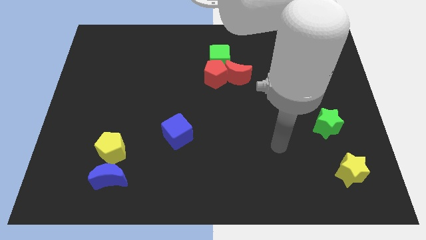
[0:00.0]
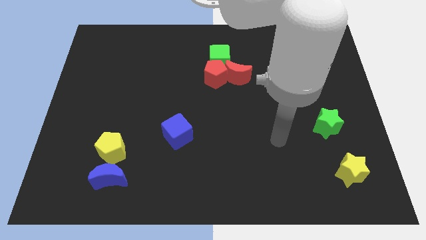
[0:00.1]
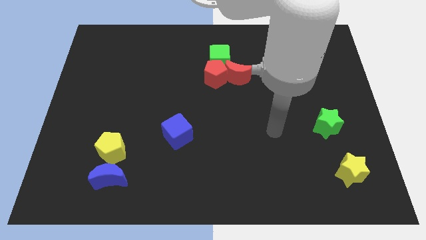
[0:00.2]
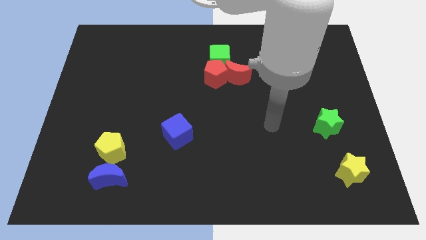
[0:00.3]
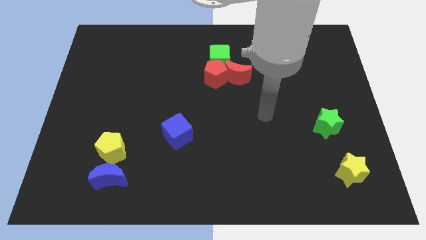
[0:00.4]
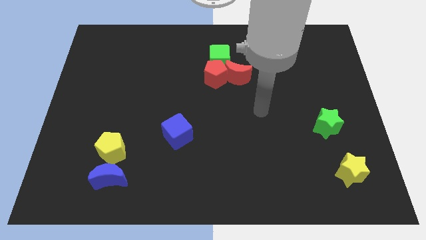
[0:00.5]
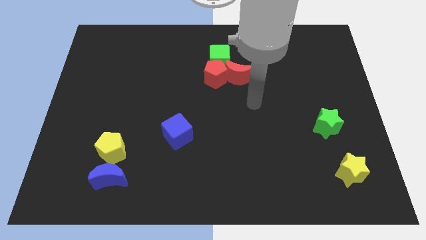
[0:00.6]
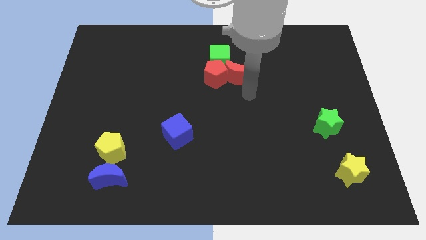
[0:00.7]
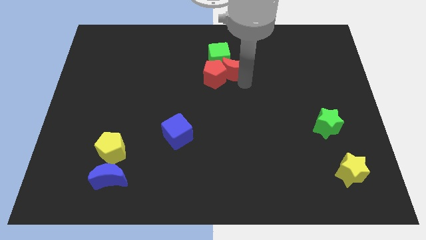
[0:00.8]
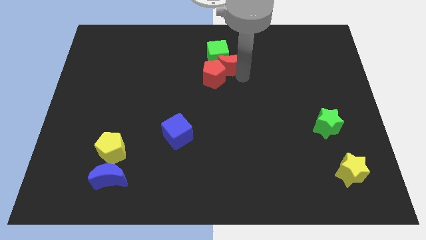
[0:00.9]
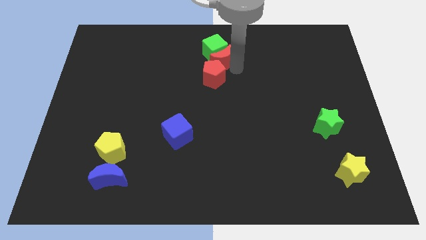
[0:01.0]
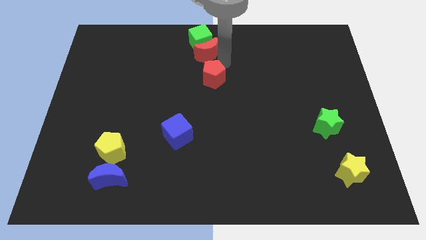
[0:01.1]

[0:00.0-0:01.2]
move the red pentagon away from the red moon and green cube

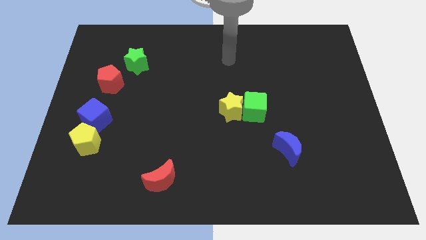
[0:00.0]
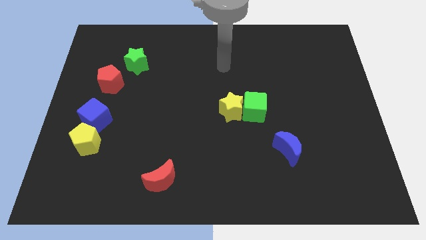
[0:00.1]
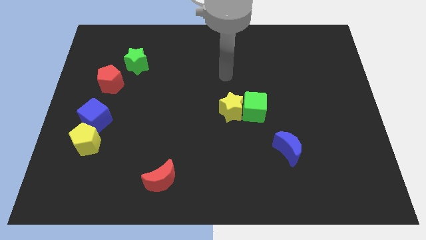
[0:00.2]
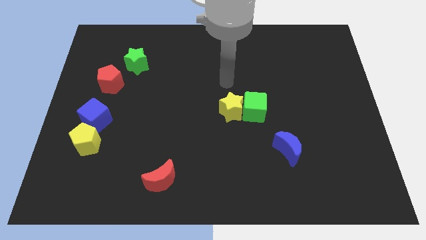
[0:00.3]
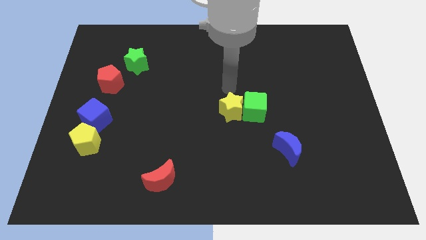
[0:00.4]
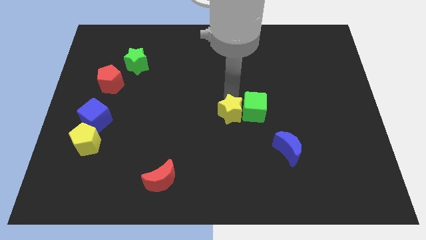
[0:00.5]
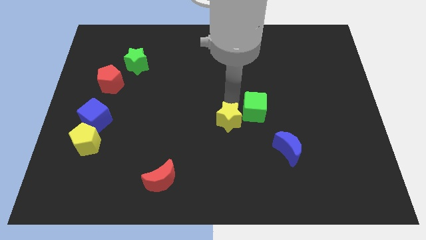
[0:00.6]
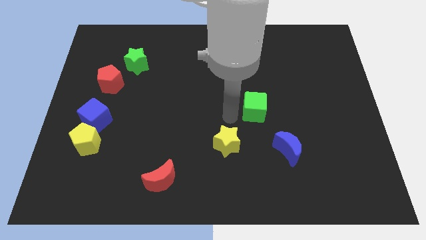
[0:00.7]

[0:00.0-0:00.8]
pull the green cube apart from the yellow star

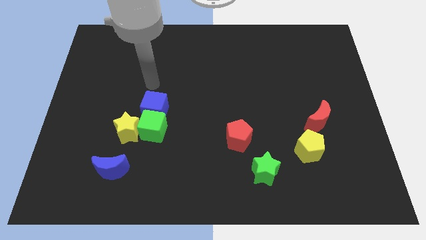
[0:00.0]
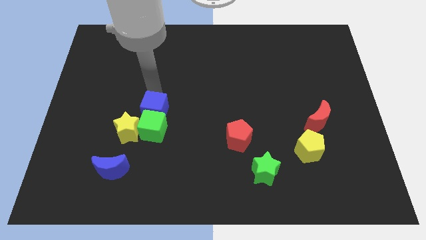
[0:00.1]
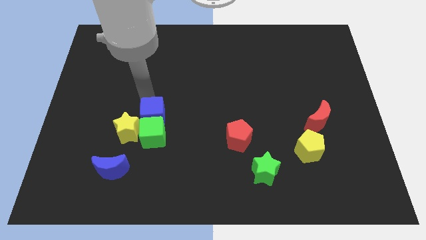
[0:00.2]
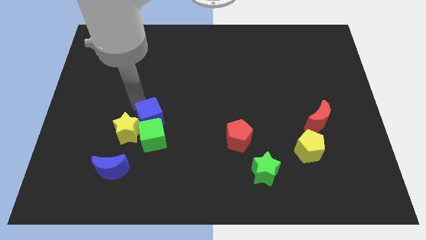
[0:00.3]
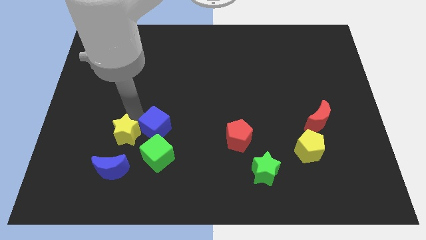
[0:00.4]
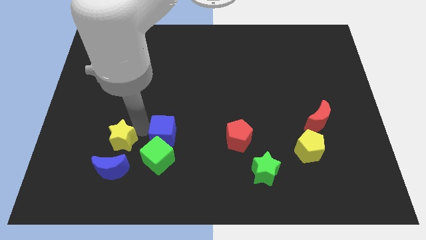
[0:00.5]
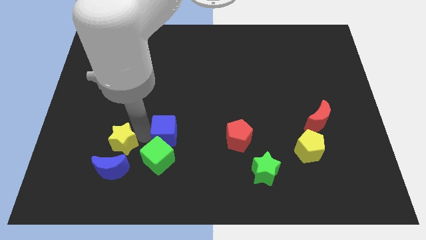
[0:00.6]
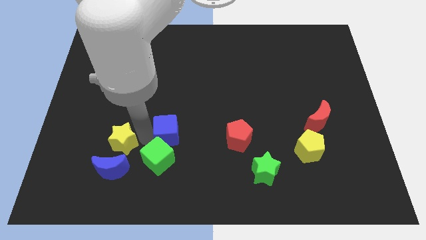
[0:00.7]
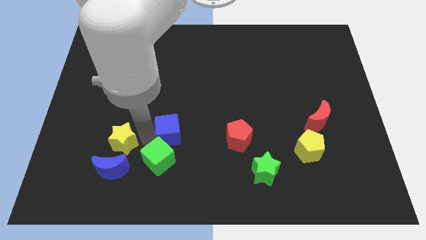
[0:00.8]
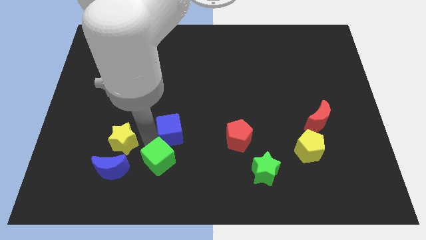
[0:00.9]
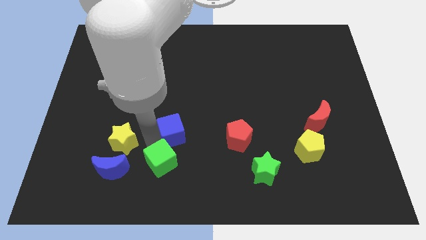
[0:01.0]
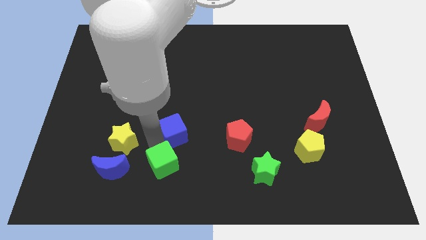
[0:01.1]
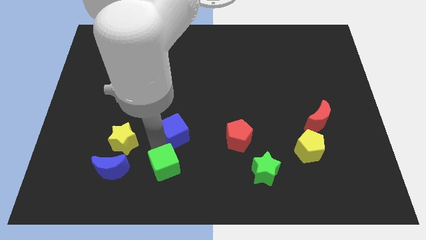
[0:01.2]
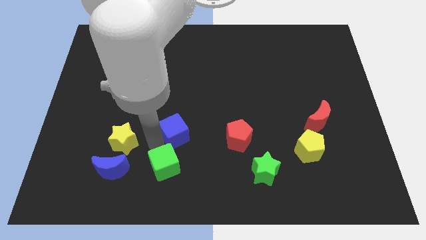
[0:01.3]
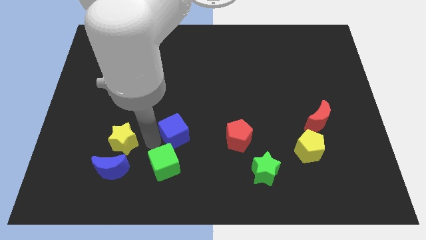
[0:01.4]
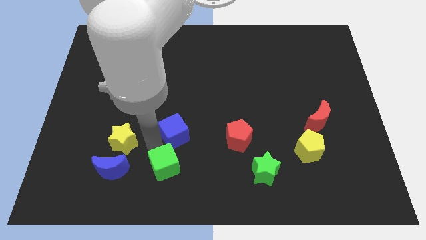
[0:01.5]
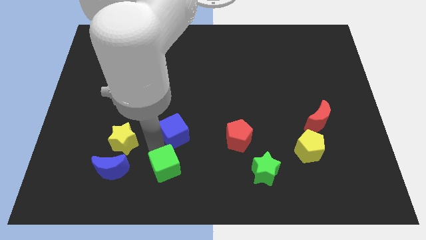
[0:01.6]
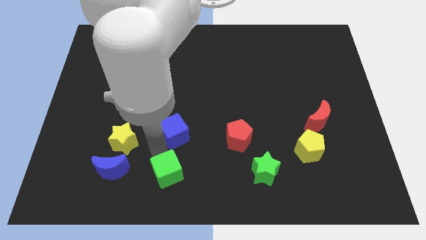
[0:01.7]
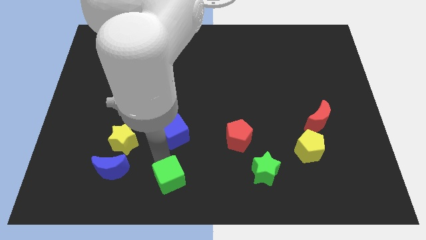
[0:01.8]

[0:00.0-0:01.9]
separate the green cube from the blue cube and yellow star

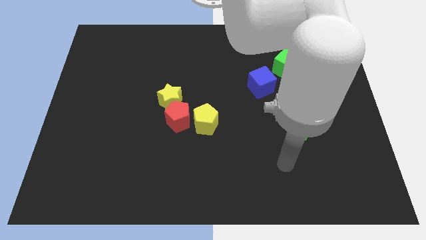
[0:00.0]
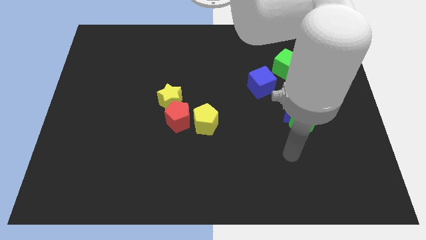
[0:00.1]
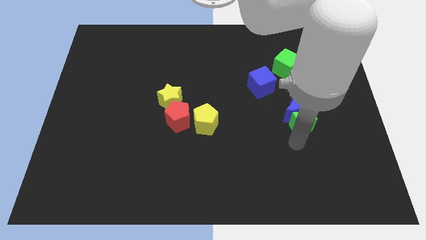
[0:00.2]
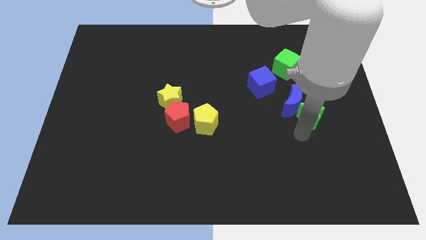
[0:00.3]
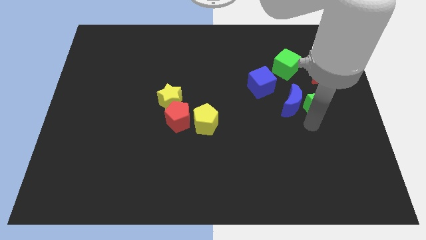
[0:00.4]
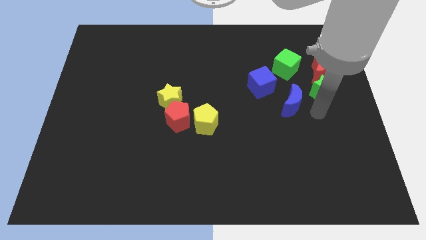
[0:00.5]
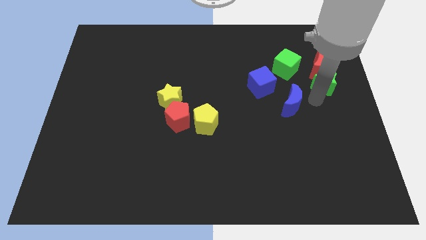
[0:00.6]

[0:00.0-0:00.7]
move the blue moon away from the green star

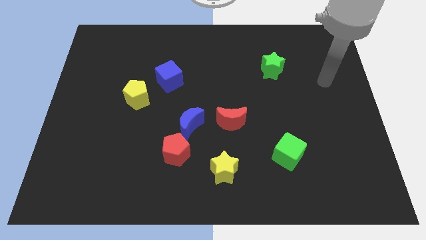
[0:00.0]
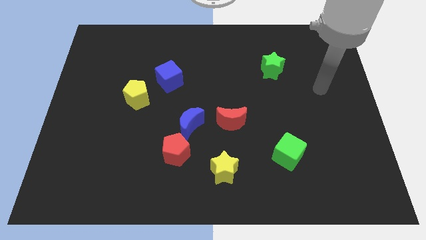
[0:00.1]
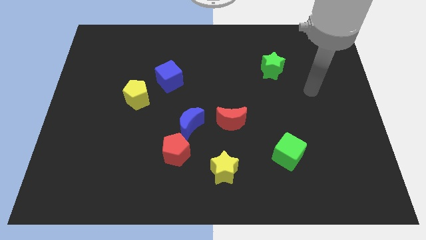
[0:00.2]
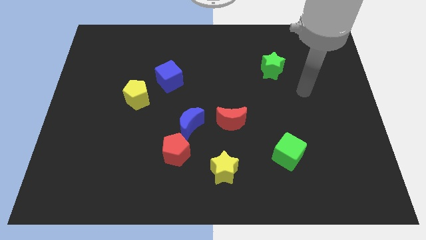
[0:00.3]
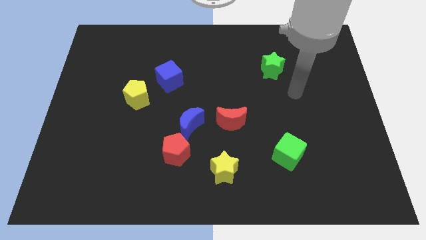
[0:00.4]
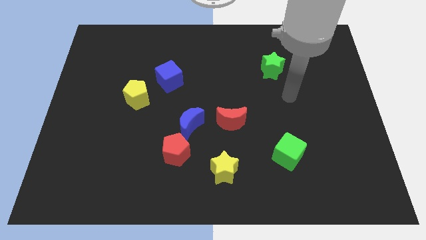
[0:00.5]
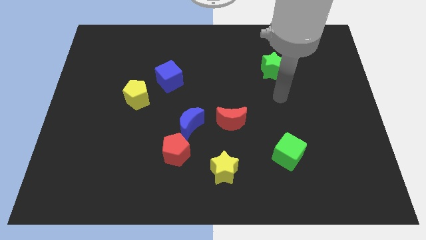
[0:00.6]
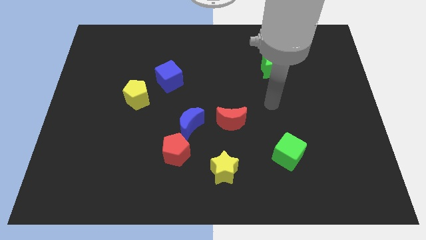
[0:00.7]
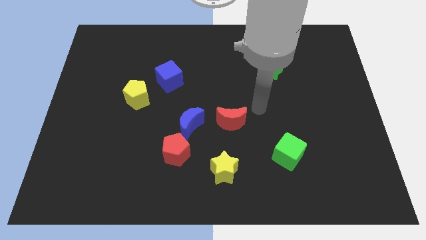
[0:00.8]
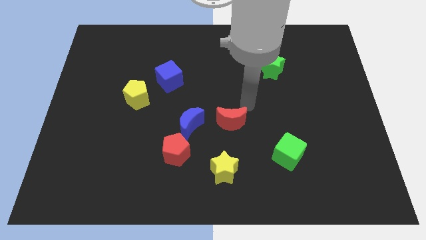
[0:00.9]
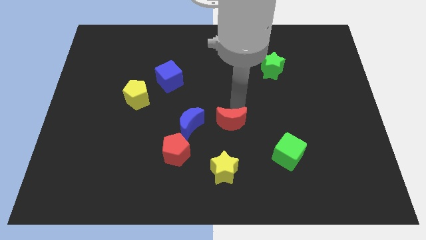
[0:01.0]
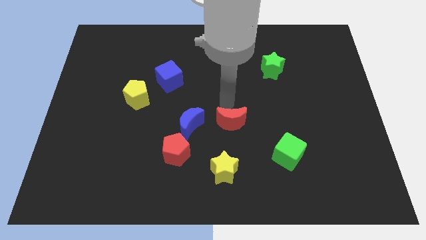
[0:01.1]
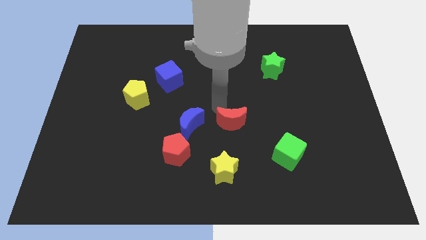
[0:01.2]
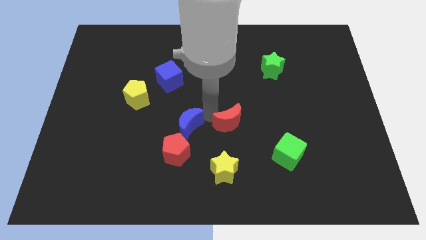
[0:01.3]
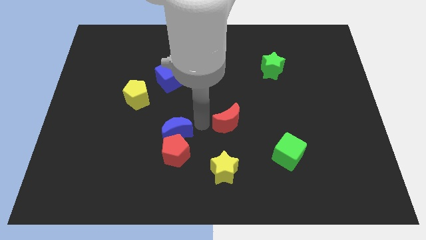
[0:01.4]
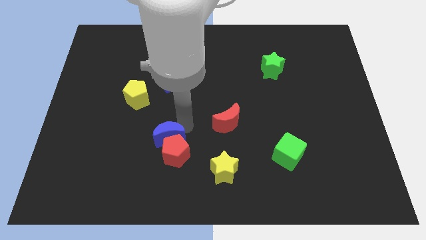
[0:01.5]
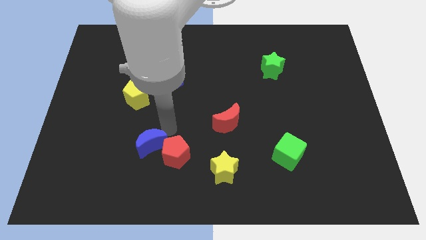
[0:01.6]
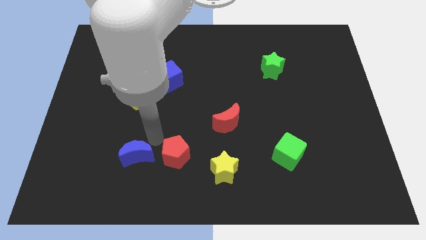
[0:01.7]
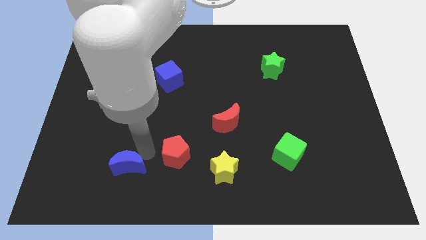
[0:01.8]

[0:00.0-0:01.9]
pull the red pentagon apart from the blue moon

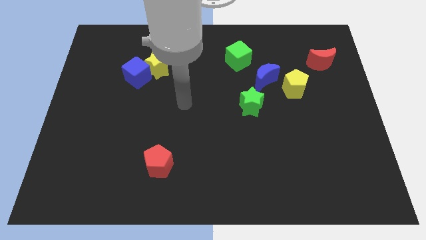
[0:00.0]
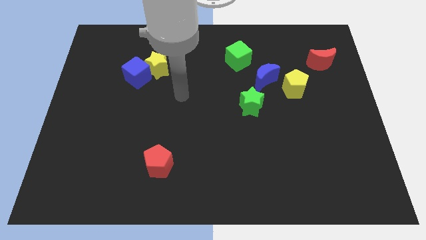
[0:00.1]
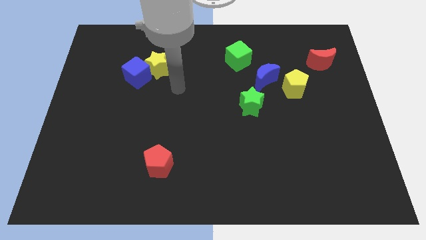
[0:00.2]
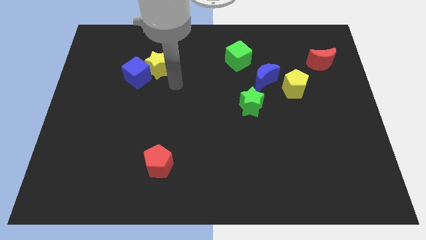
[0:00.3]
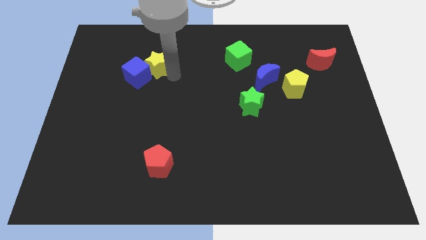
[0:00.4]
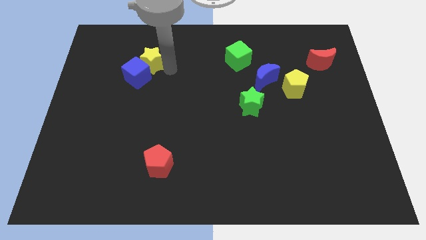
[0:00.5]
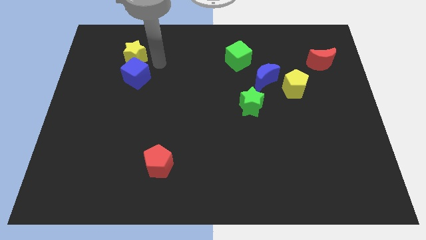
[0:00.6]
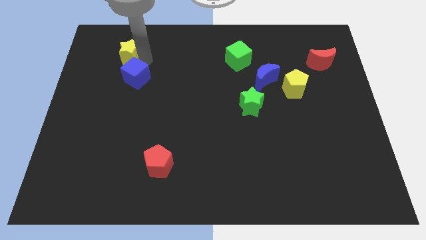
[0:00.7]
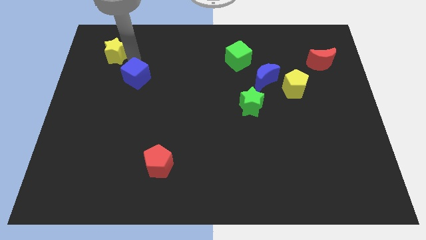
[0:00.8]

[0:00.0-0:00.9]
separate the blue cube from the yellow star

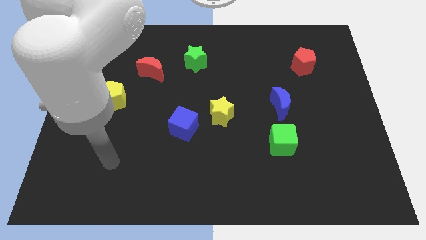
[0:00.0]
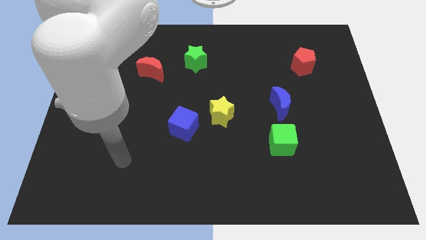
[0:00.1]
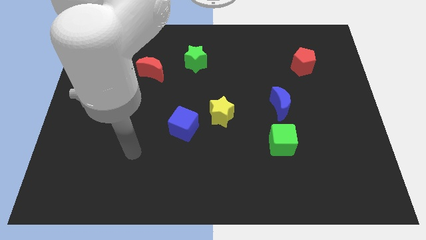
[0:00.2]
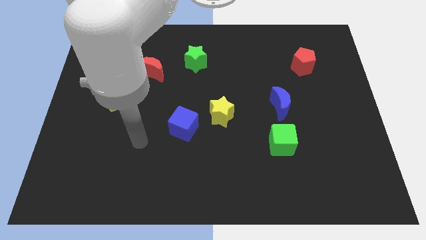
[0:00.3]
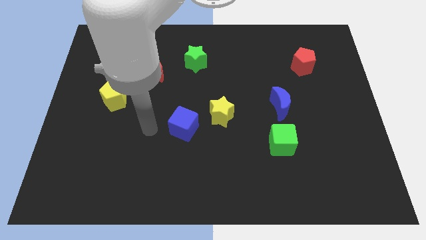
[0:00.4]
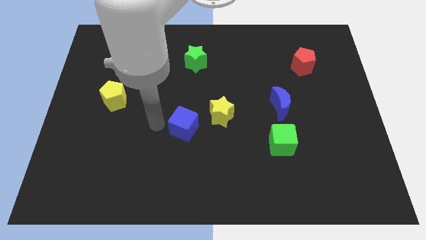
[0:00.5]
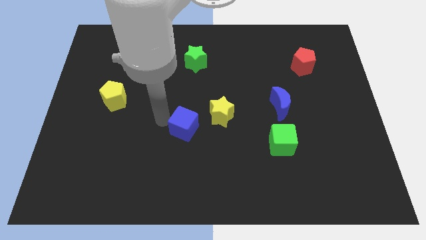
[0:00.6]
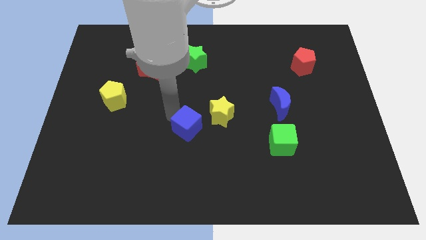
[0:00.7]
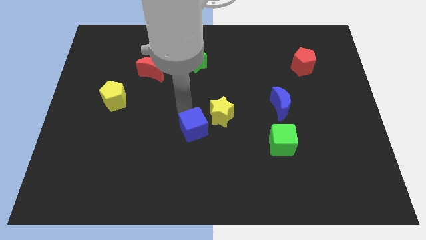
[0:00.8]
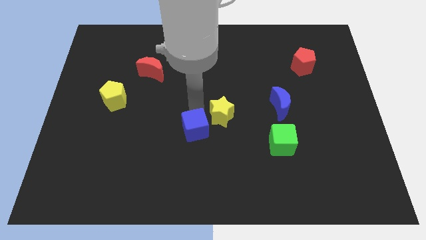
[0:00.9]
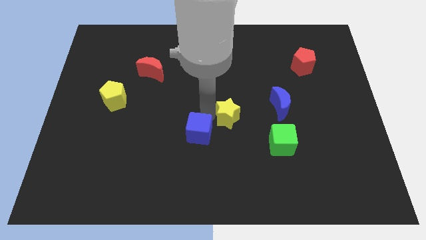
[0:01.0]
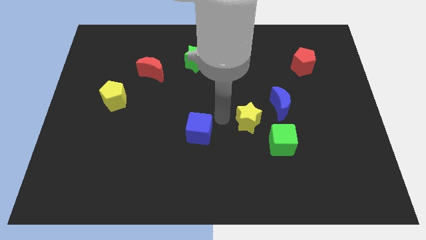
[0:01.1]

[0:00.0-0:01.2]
pull the blue cube apart from the yellow star

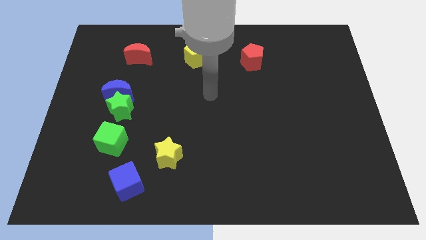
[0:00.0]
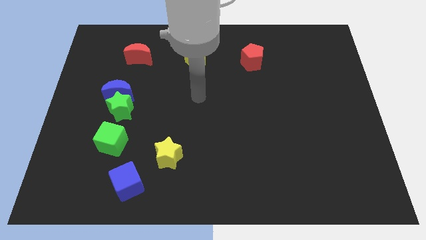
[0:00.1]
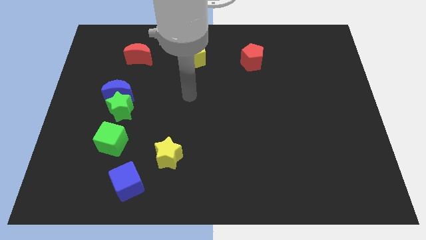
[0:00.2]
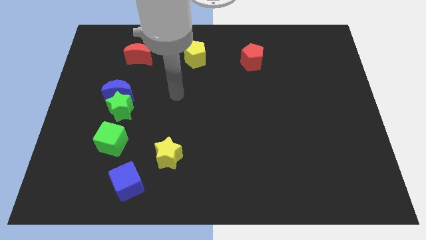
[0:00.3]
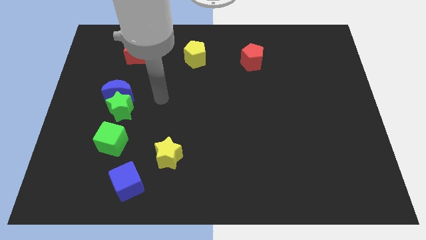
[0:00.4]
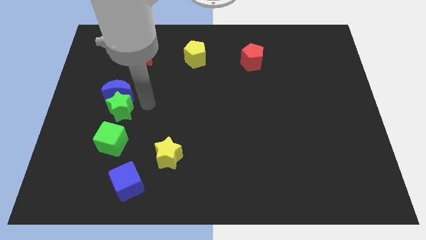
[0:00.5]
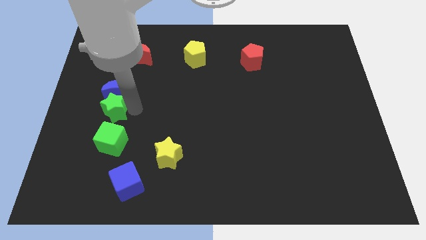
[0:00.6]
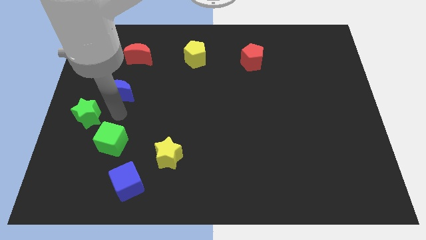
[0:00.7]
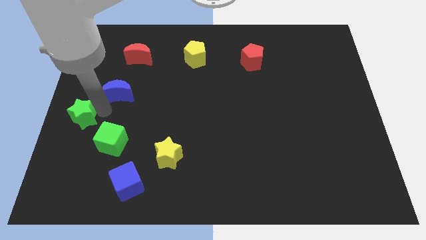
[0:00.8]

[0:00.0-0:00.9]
pull the blue moon apart from the green star

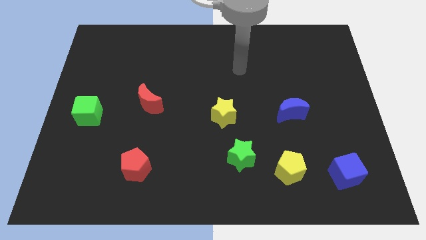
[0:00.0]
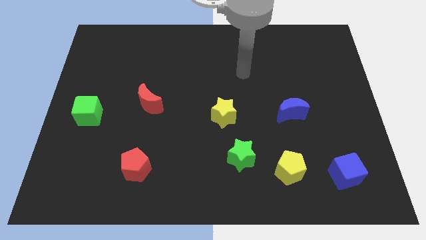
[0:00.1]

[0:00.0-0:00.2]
move the green star away from the yellow pentagon
